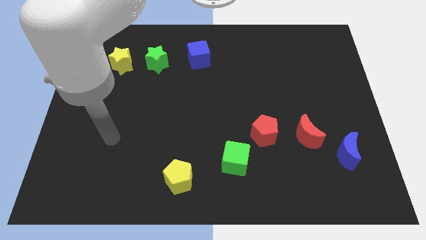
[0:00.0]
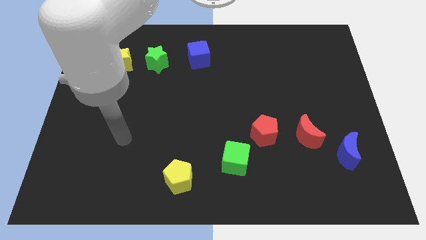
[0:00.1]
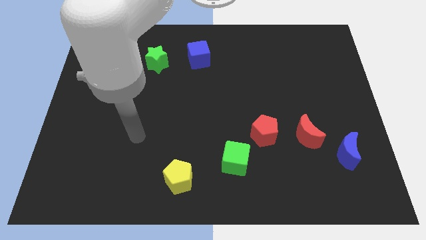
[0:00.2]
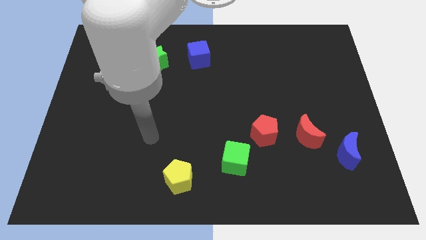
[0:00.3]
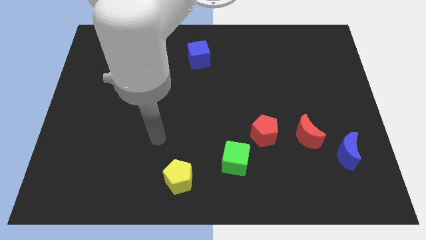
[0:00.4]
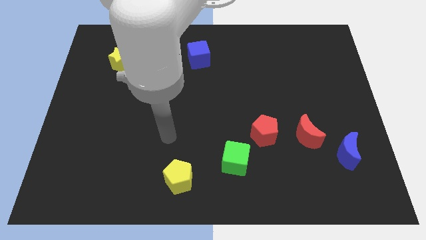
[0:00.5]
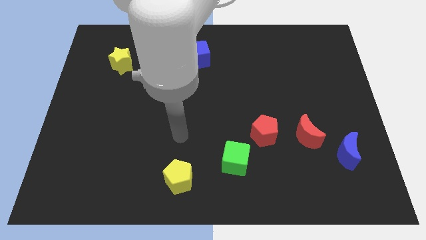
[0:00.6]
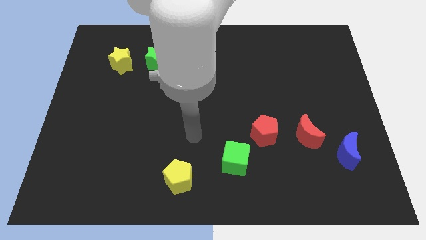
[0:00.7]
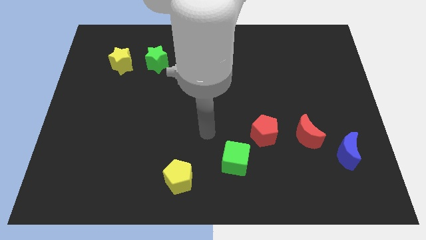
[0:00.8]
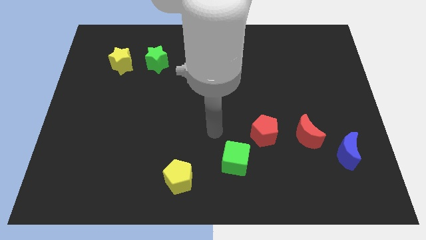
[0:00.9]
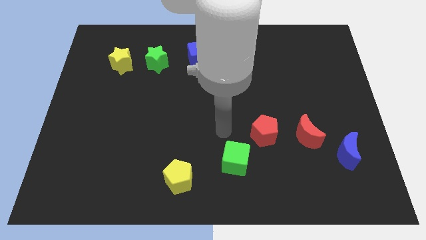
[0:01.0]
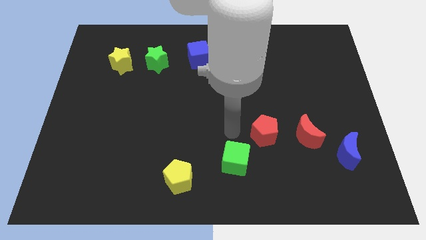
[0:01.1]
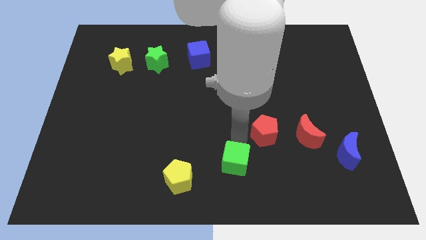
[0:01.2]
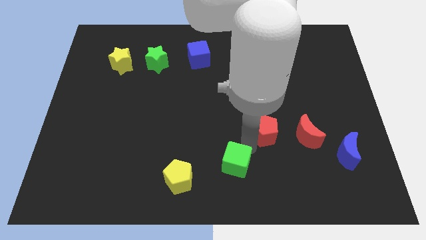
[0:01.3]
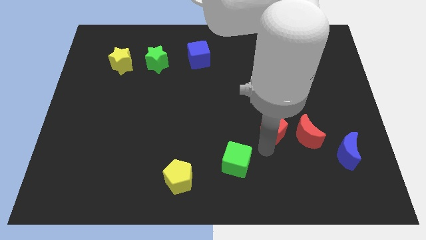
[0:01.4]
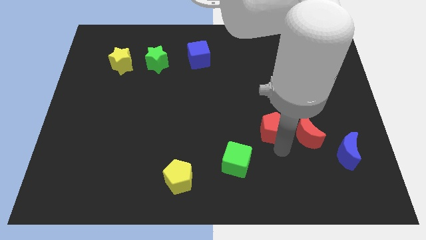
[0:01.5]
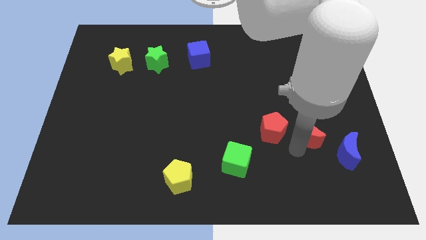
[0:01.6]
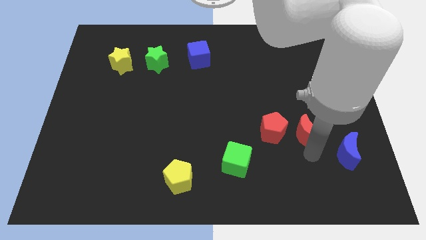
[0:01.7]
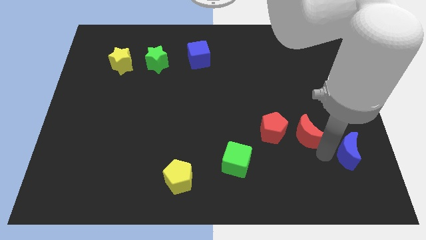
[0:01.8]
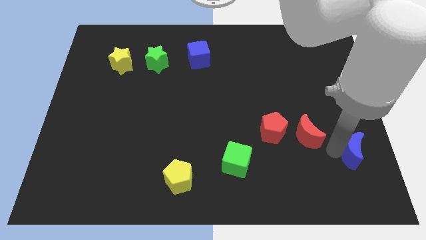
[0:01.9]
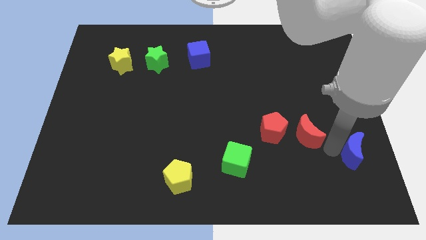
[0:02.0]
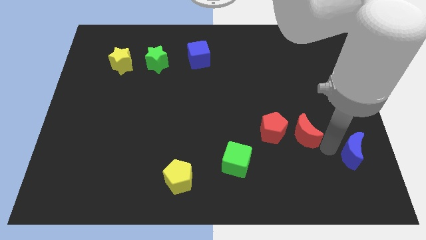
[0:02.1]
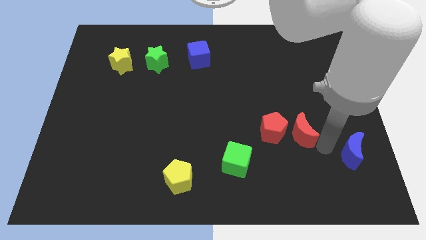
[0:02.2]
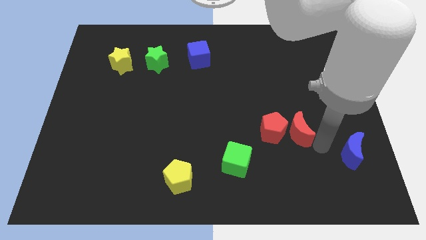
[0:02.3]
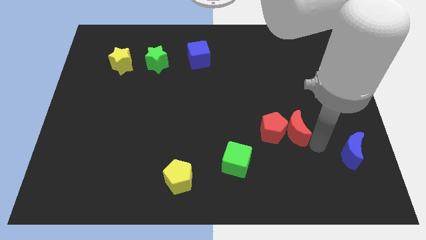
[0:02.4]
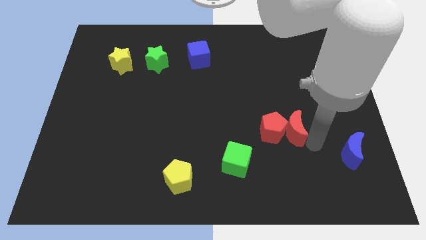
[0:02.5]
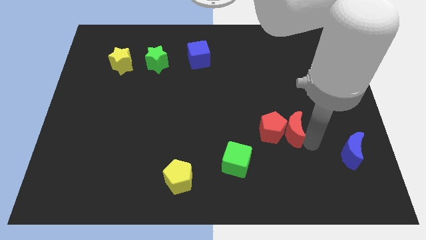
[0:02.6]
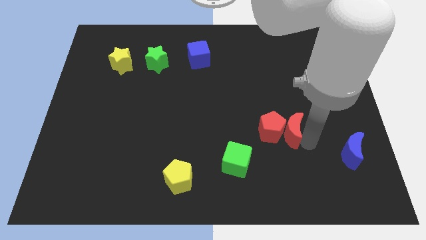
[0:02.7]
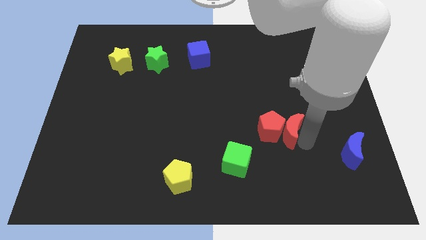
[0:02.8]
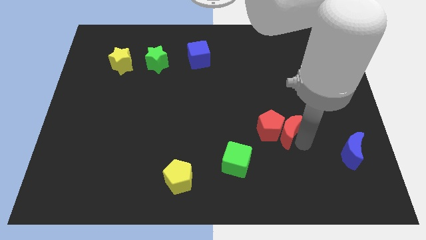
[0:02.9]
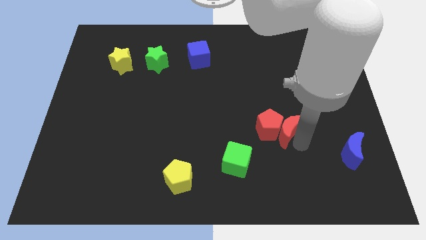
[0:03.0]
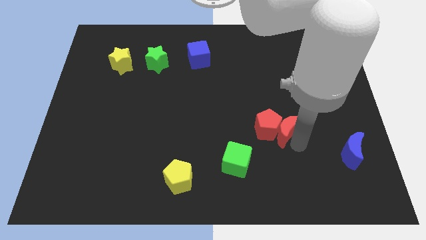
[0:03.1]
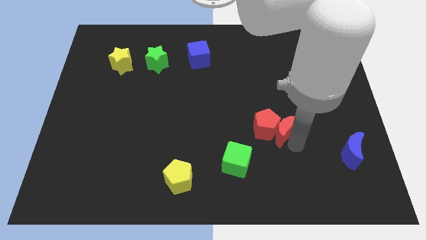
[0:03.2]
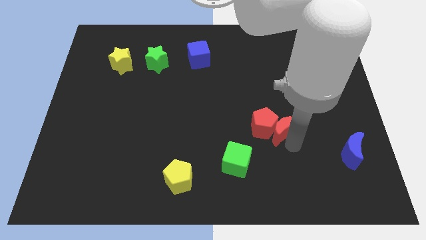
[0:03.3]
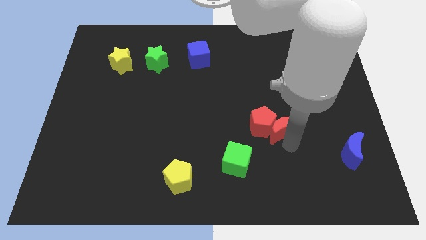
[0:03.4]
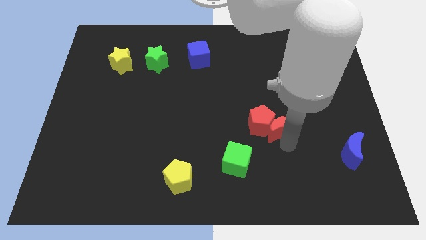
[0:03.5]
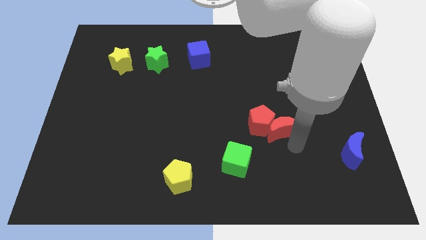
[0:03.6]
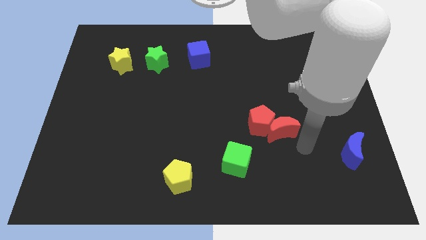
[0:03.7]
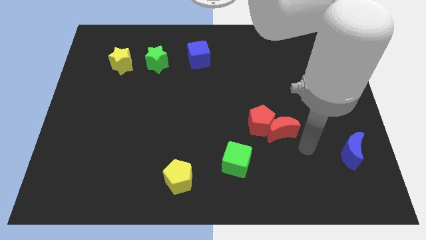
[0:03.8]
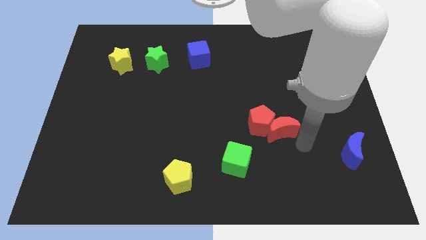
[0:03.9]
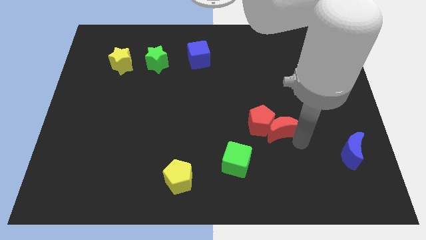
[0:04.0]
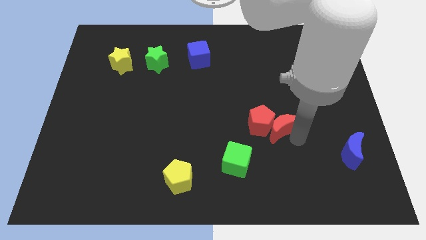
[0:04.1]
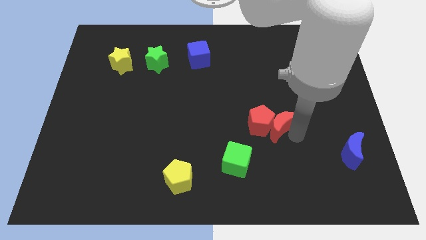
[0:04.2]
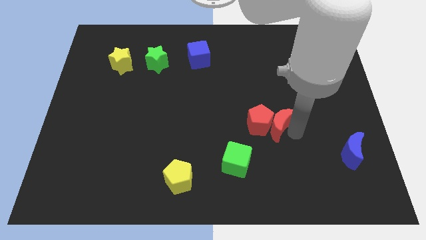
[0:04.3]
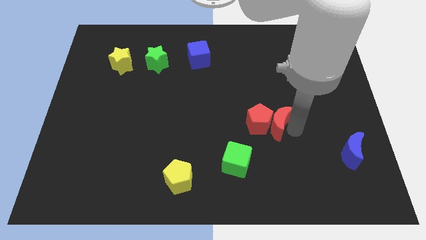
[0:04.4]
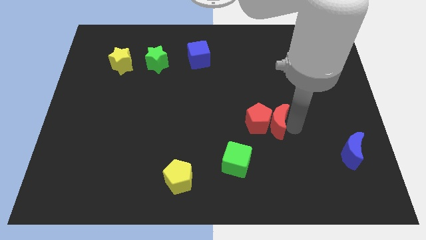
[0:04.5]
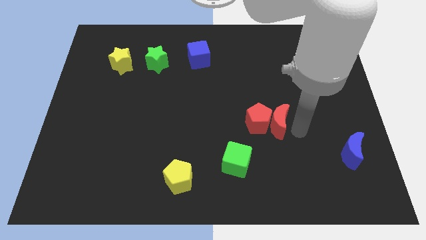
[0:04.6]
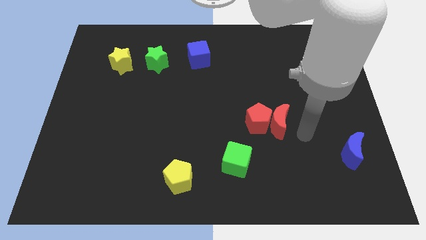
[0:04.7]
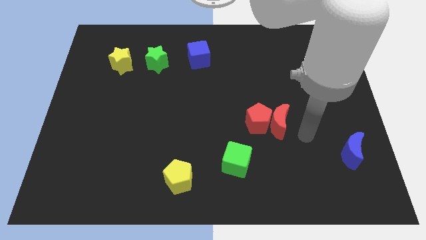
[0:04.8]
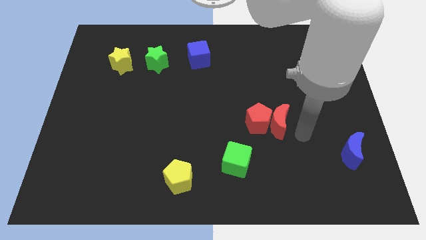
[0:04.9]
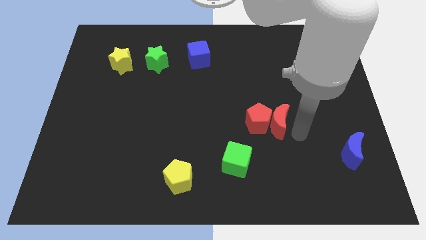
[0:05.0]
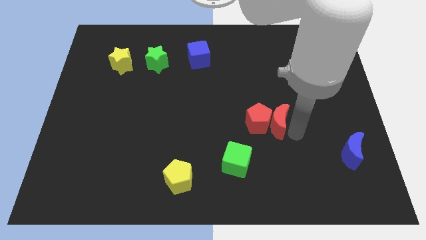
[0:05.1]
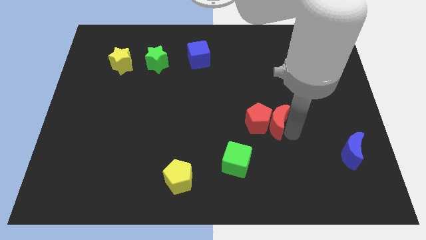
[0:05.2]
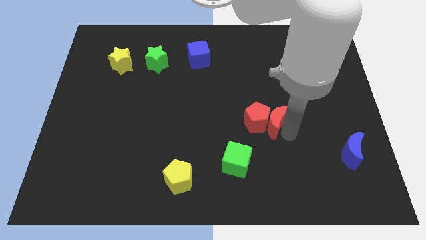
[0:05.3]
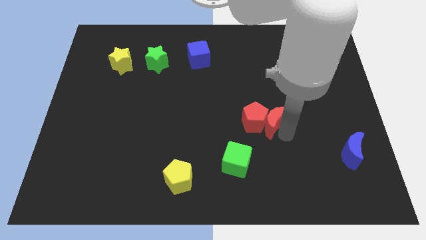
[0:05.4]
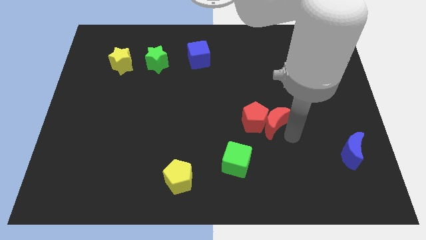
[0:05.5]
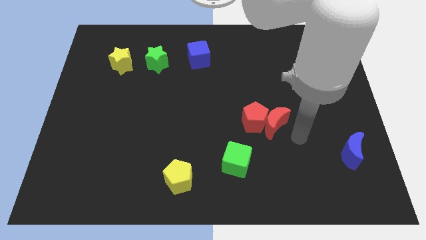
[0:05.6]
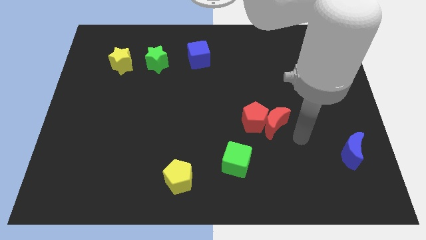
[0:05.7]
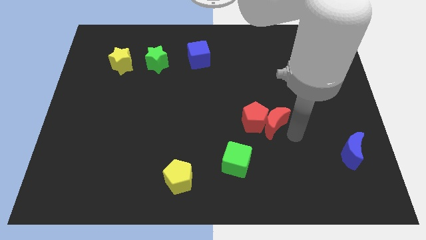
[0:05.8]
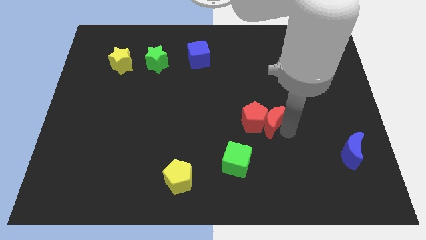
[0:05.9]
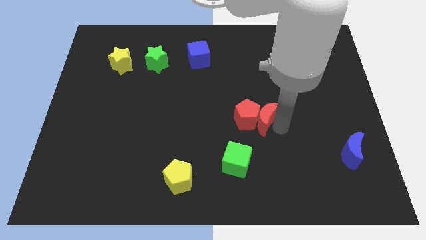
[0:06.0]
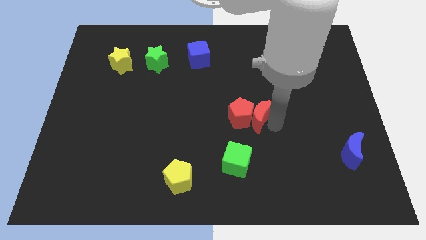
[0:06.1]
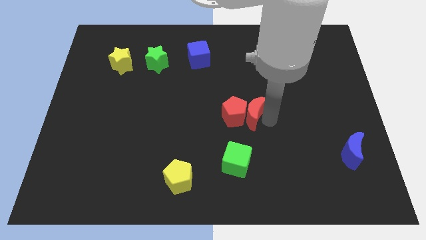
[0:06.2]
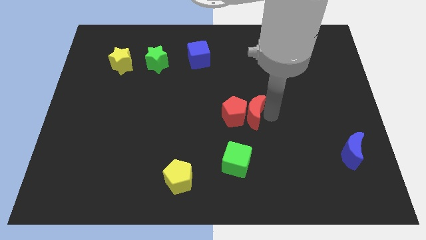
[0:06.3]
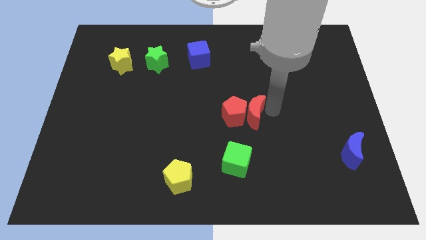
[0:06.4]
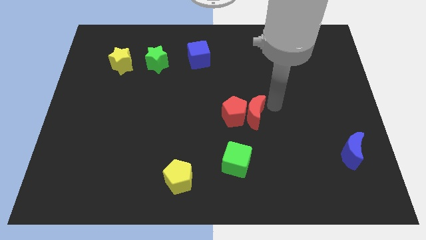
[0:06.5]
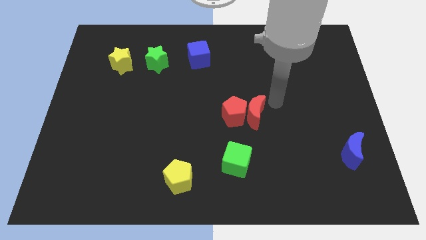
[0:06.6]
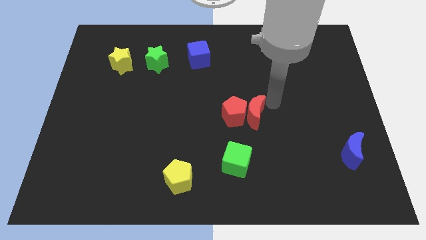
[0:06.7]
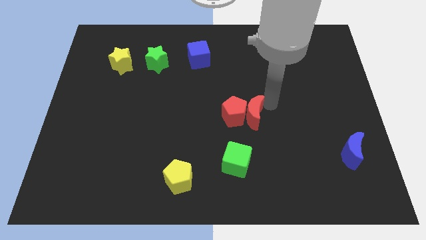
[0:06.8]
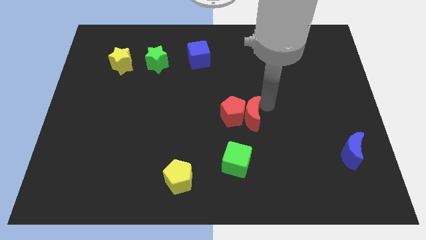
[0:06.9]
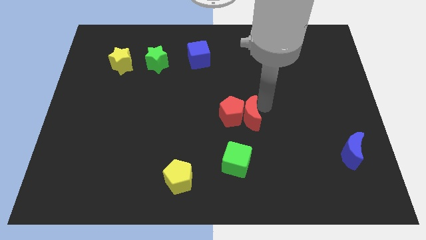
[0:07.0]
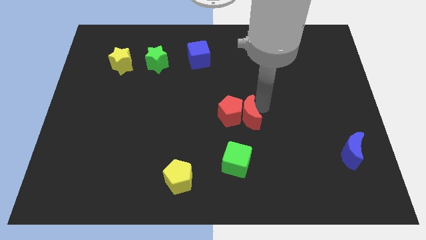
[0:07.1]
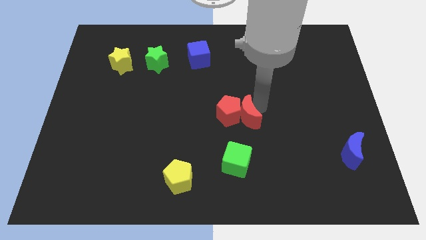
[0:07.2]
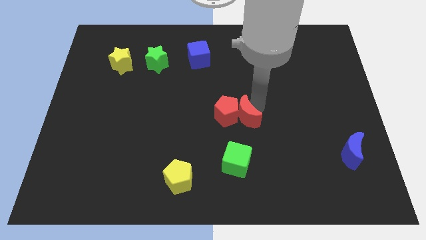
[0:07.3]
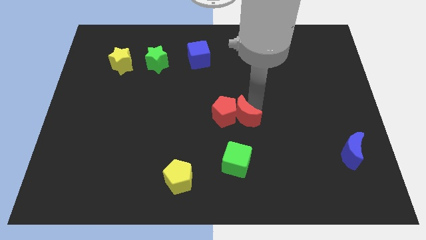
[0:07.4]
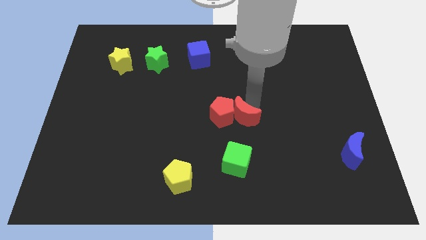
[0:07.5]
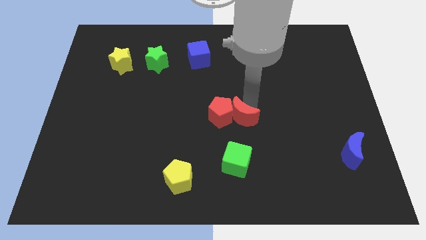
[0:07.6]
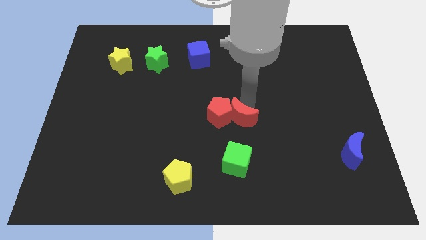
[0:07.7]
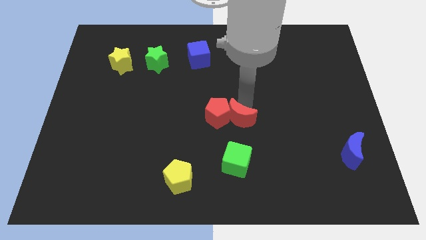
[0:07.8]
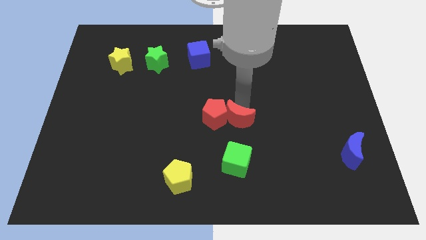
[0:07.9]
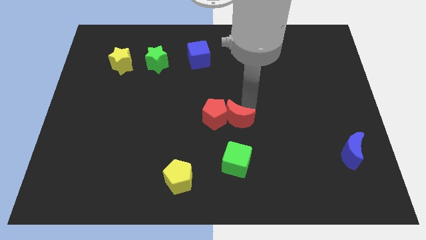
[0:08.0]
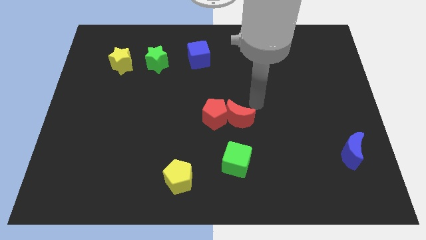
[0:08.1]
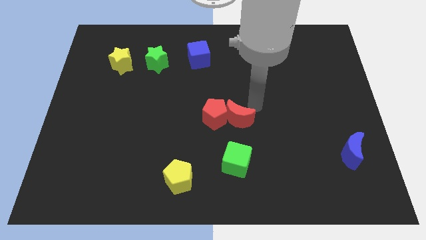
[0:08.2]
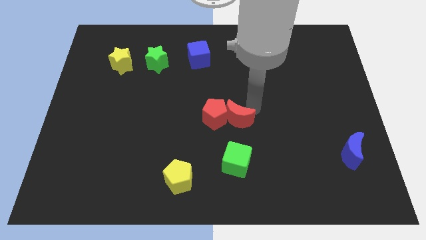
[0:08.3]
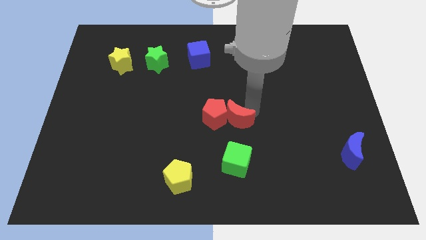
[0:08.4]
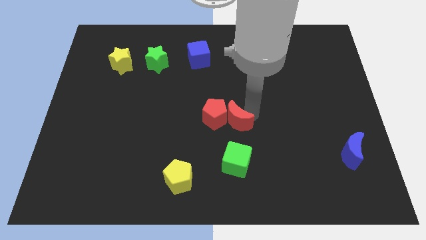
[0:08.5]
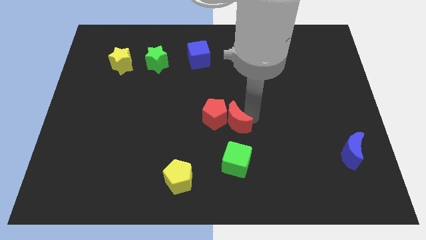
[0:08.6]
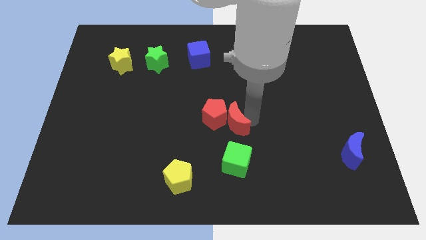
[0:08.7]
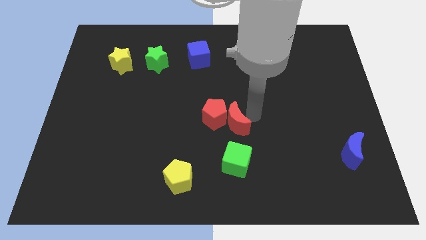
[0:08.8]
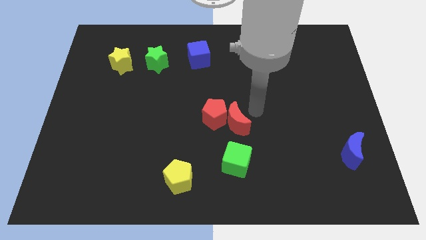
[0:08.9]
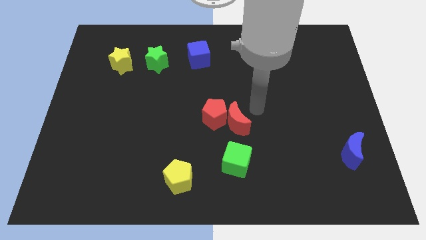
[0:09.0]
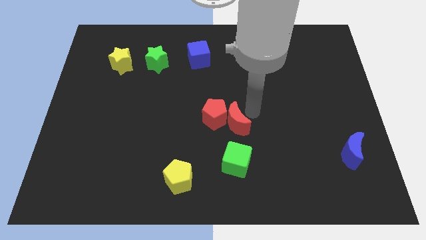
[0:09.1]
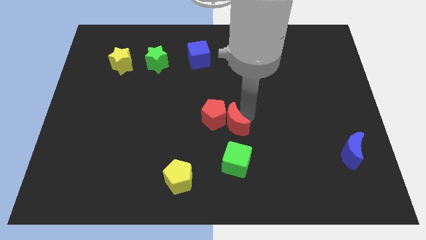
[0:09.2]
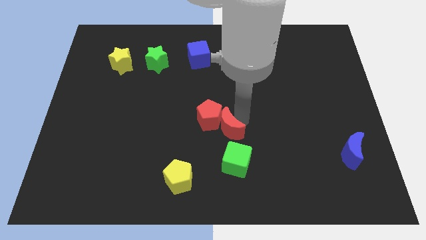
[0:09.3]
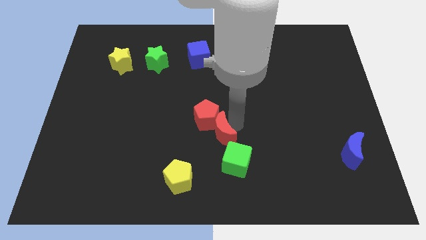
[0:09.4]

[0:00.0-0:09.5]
put the red moon to the top left side of the green cube
